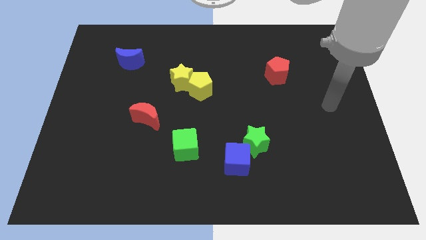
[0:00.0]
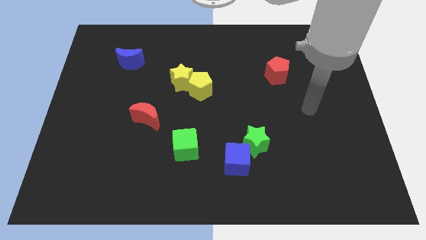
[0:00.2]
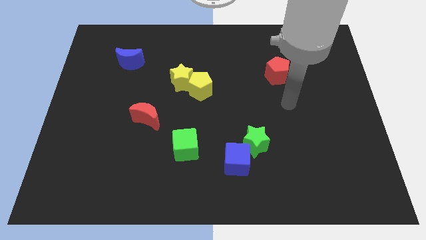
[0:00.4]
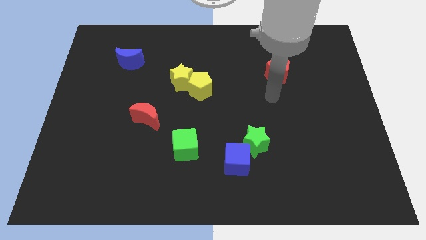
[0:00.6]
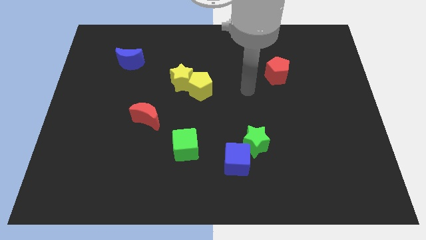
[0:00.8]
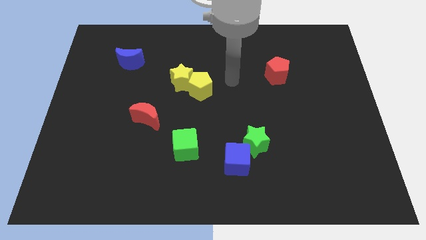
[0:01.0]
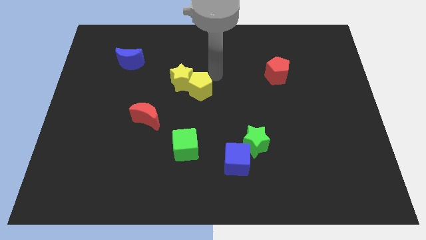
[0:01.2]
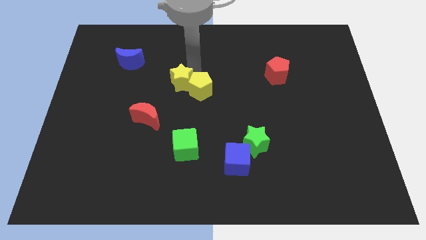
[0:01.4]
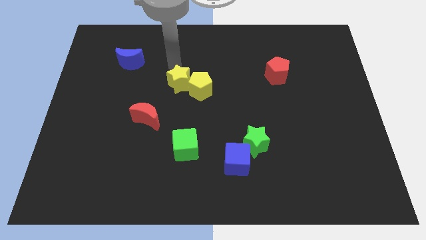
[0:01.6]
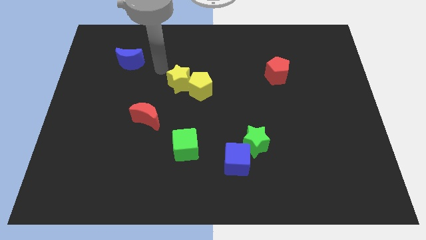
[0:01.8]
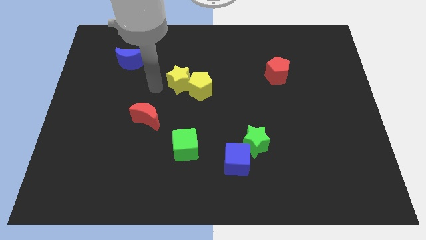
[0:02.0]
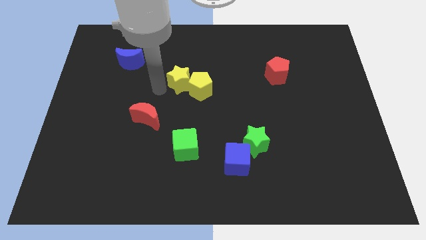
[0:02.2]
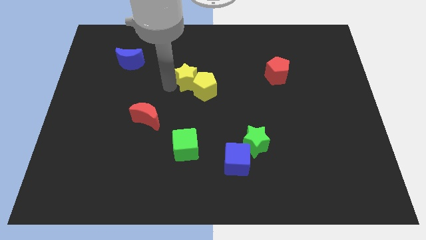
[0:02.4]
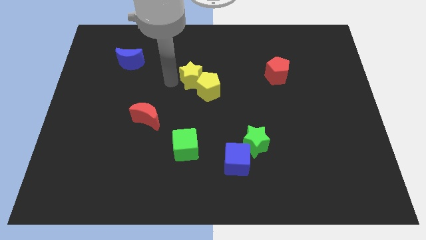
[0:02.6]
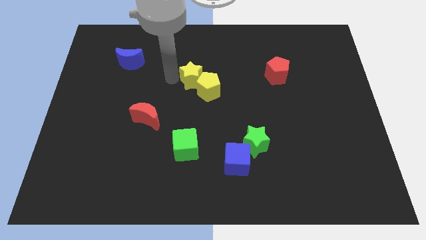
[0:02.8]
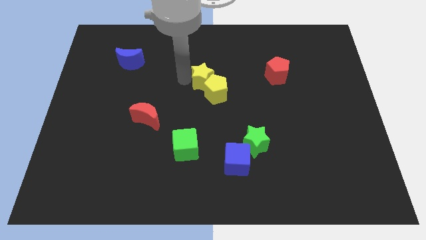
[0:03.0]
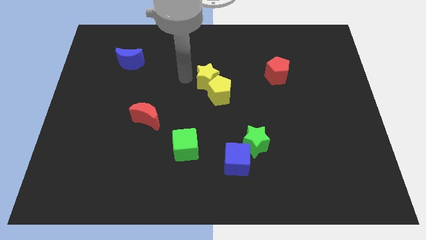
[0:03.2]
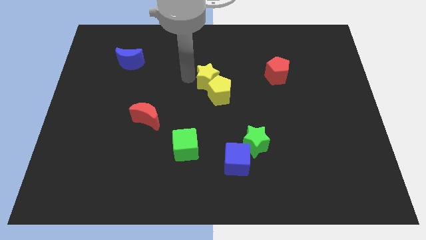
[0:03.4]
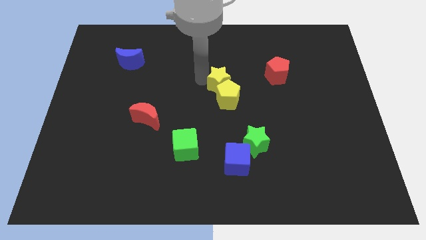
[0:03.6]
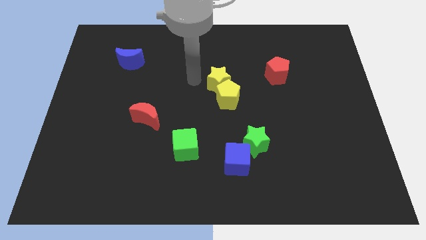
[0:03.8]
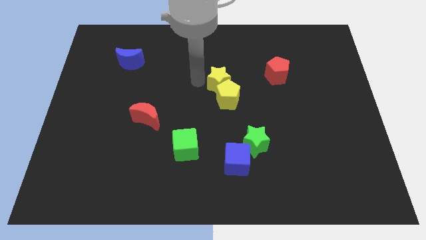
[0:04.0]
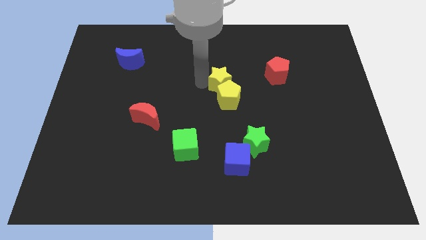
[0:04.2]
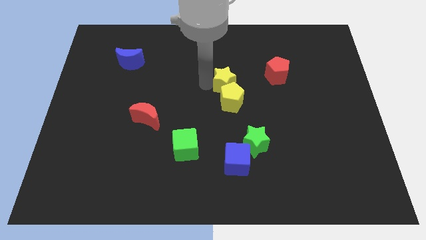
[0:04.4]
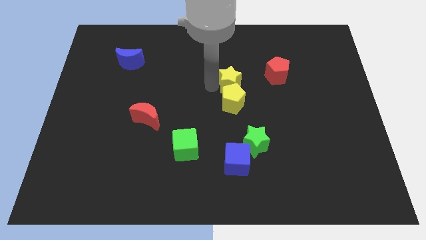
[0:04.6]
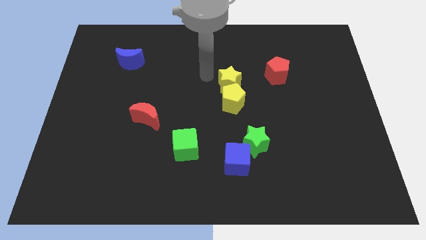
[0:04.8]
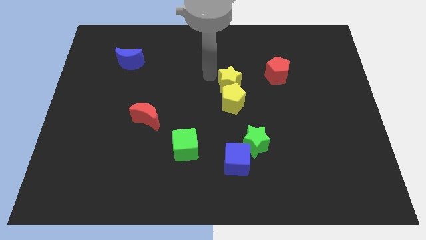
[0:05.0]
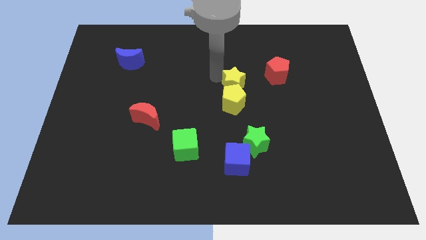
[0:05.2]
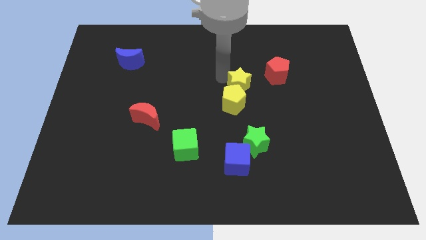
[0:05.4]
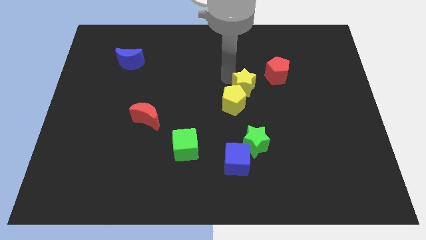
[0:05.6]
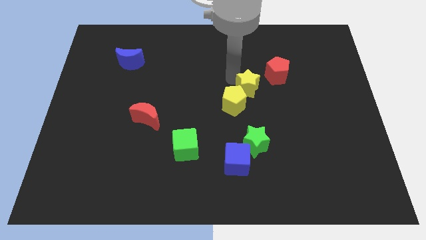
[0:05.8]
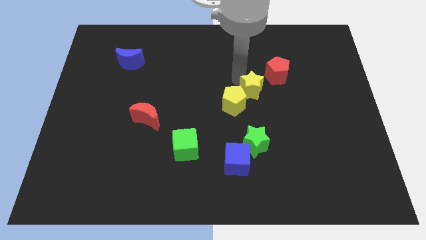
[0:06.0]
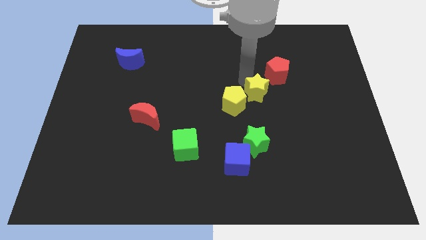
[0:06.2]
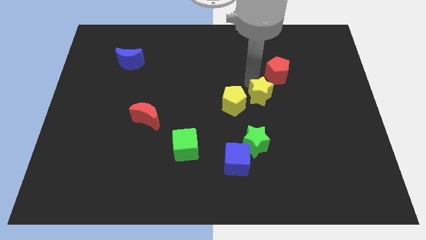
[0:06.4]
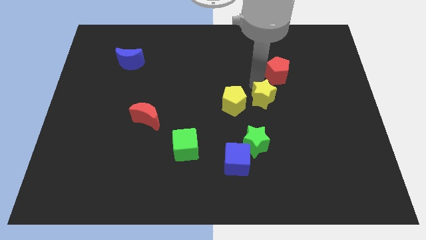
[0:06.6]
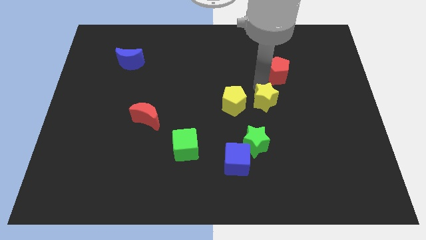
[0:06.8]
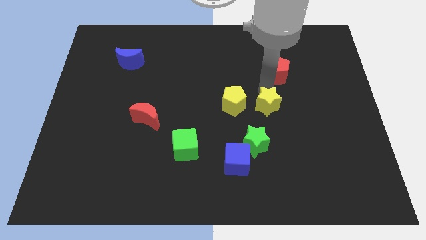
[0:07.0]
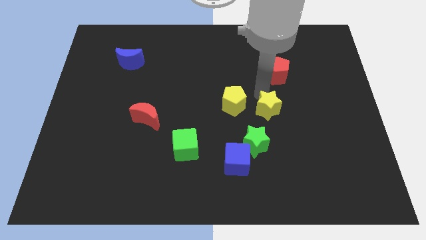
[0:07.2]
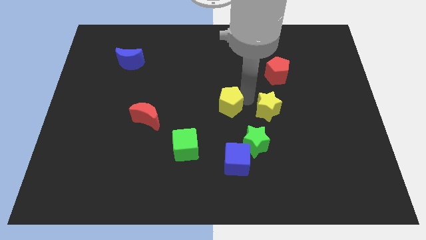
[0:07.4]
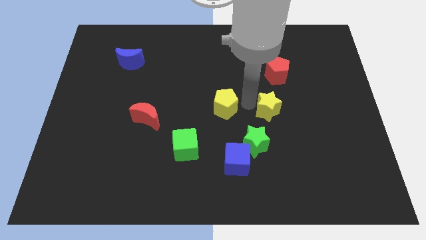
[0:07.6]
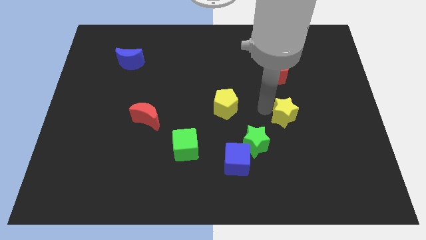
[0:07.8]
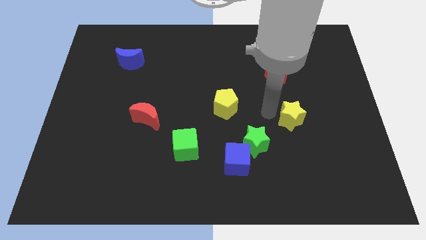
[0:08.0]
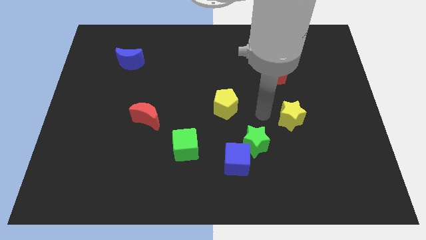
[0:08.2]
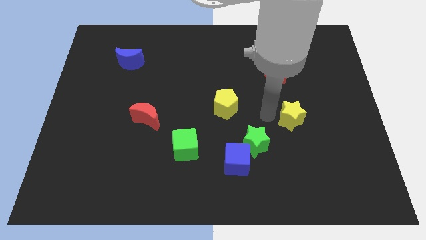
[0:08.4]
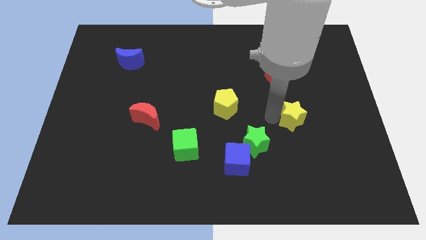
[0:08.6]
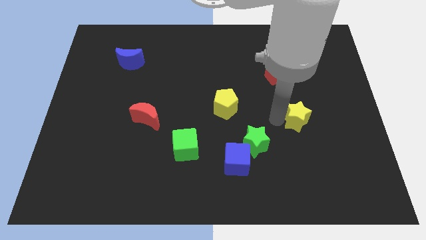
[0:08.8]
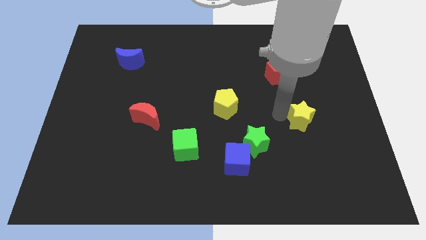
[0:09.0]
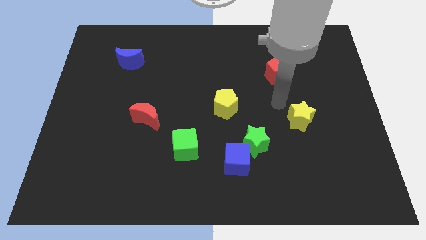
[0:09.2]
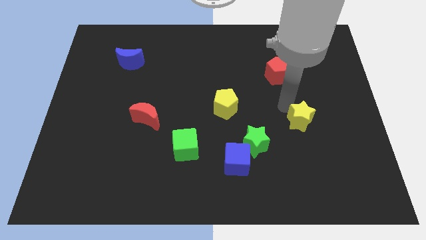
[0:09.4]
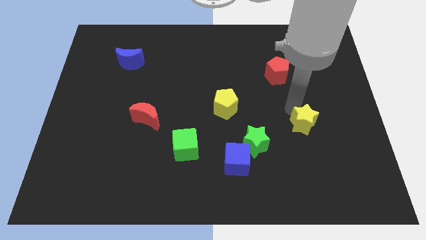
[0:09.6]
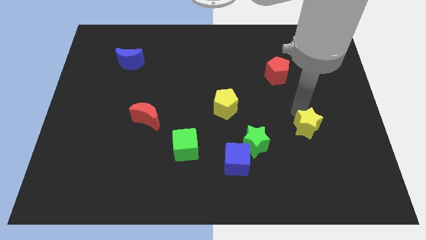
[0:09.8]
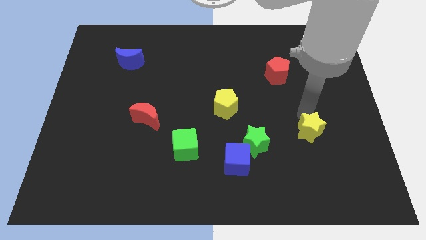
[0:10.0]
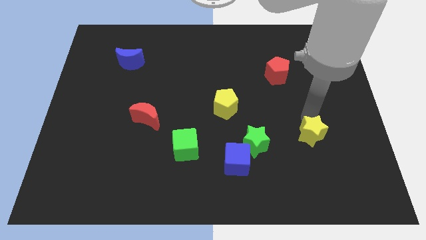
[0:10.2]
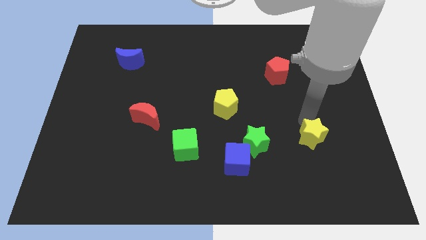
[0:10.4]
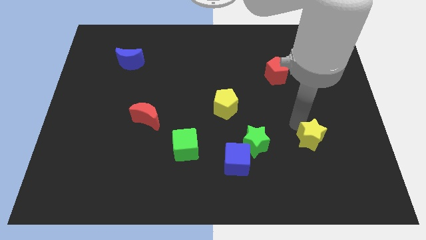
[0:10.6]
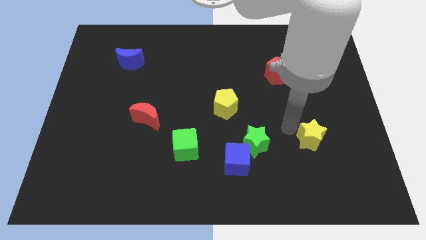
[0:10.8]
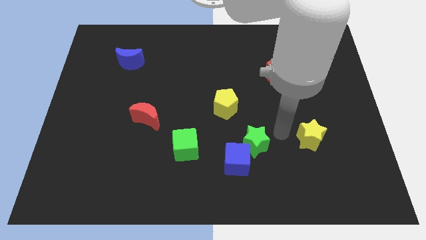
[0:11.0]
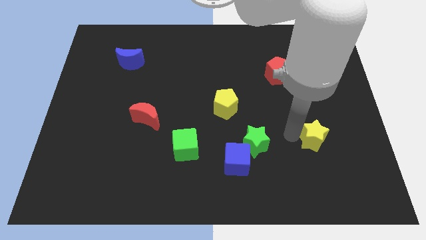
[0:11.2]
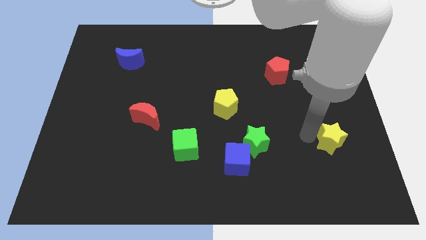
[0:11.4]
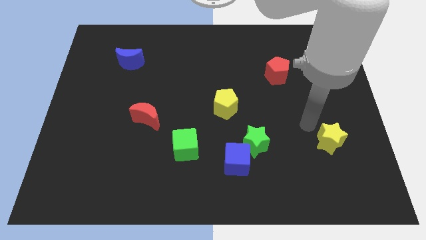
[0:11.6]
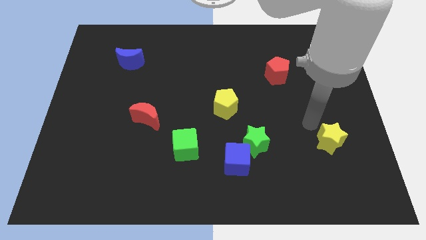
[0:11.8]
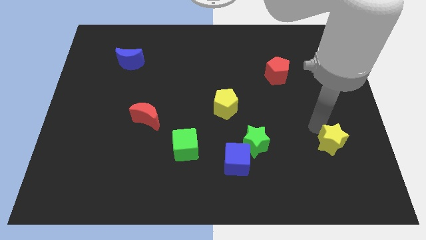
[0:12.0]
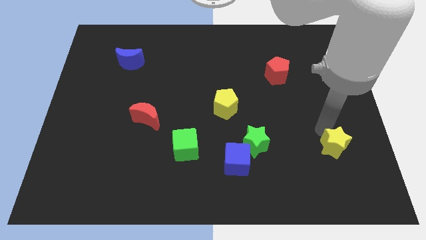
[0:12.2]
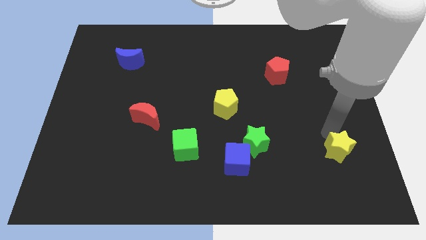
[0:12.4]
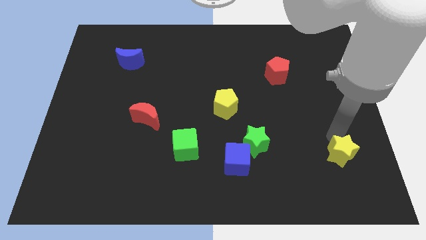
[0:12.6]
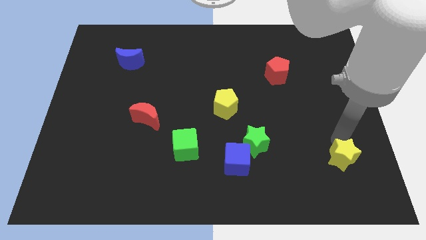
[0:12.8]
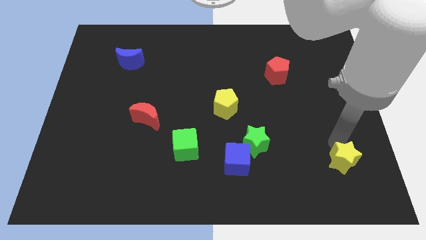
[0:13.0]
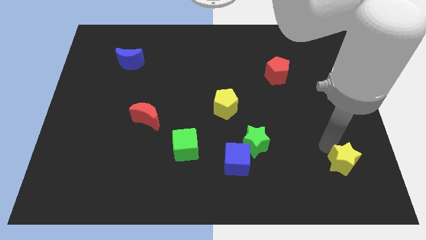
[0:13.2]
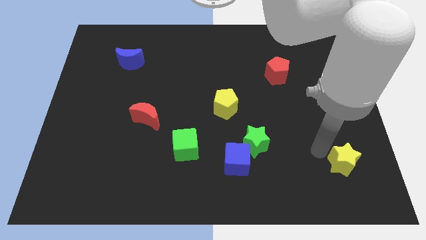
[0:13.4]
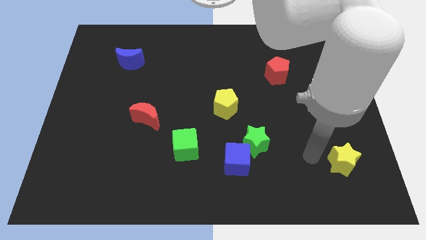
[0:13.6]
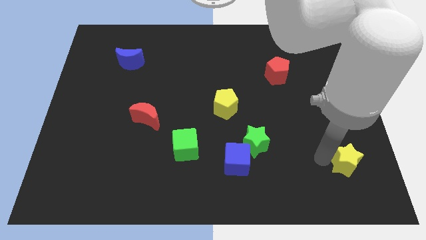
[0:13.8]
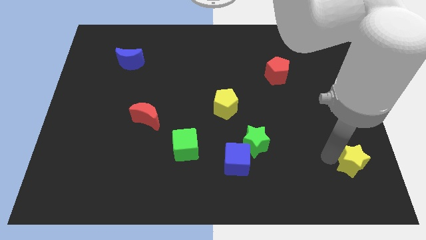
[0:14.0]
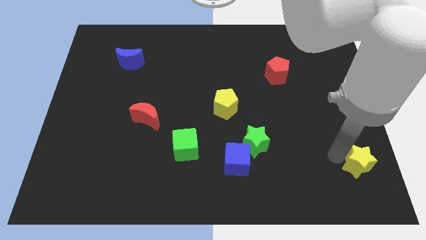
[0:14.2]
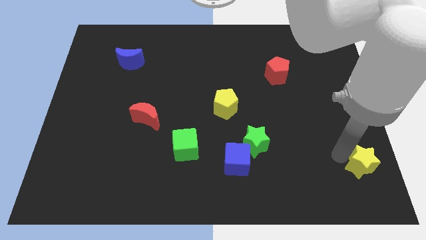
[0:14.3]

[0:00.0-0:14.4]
push the yellow star to the bottom right
